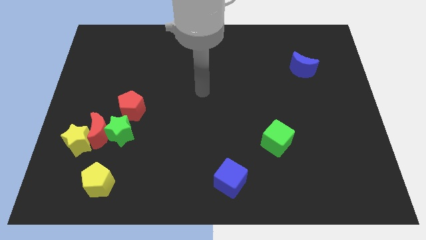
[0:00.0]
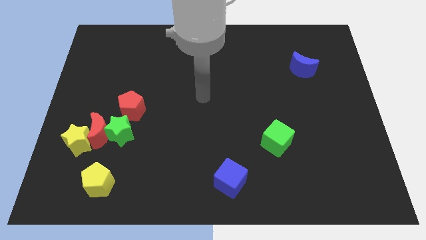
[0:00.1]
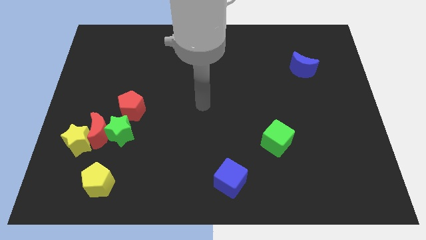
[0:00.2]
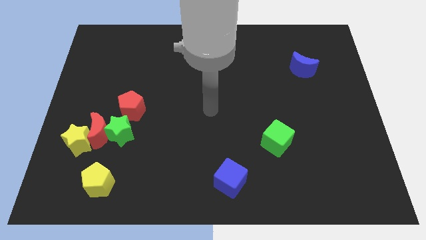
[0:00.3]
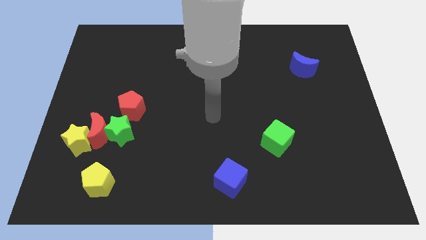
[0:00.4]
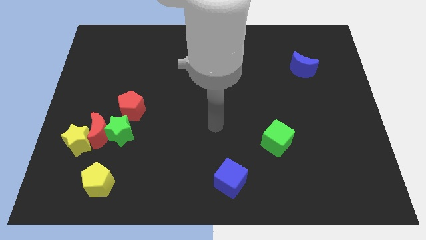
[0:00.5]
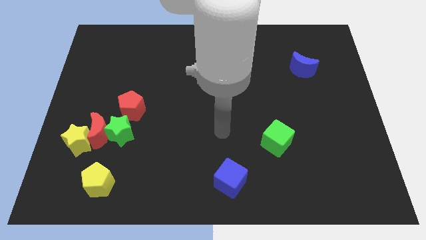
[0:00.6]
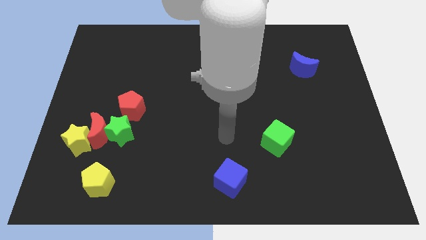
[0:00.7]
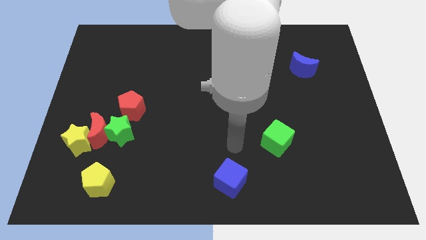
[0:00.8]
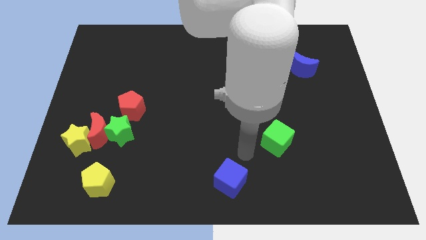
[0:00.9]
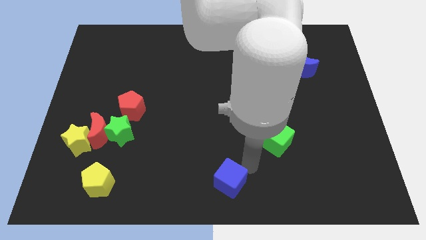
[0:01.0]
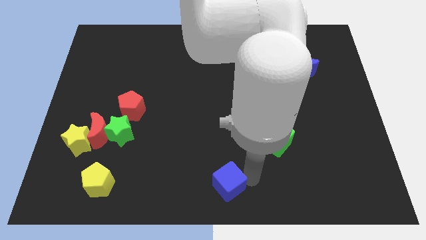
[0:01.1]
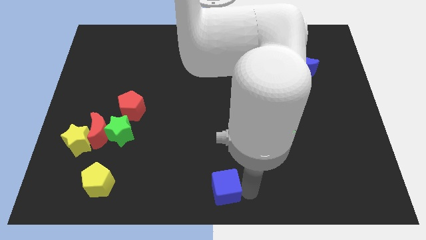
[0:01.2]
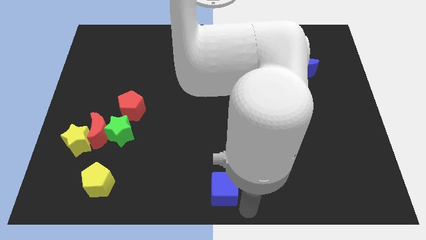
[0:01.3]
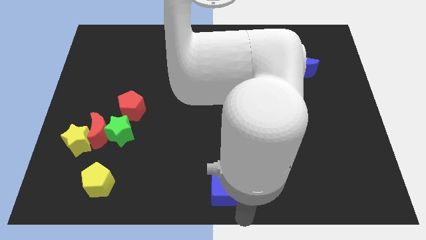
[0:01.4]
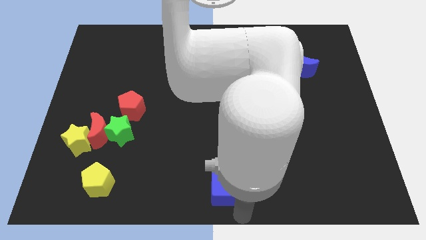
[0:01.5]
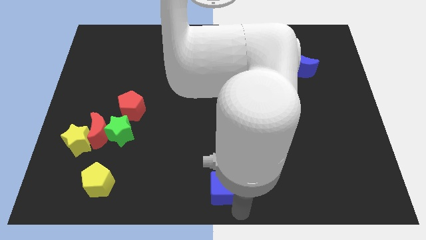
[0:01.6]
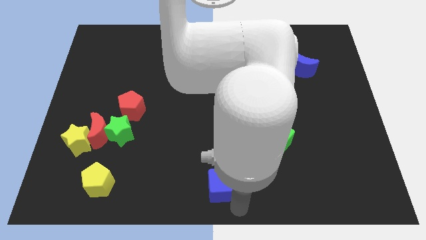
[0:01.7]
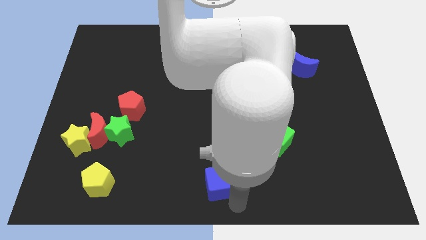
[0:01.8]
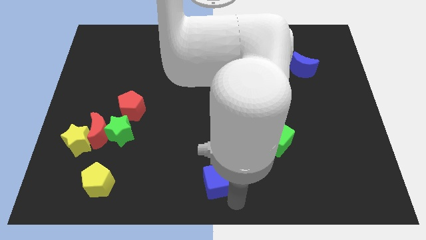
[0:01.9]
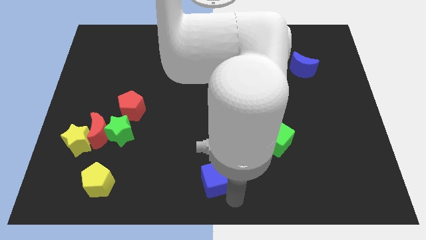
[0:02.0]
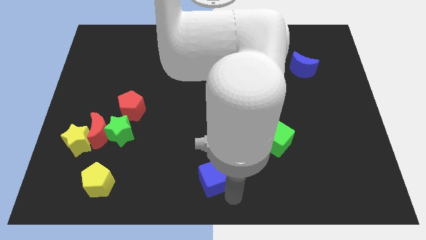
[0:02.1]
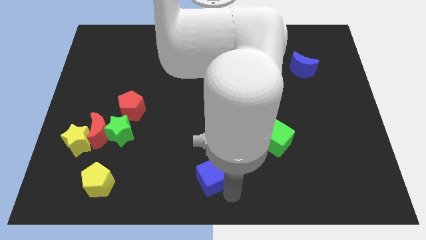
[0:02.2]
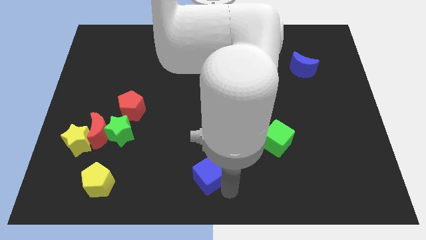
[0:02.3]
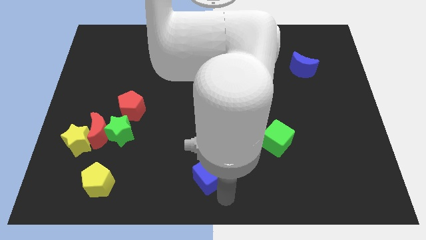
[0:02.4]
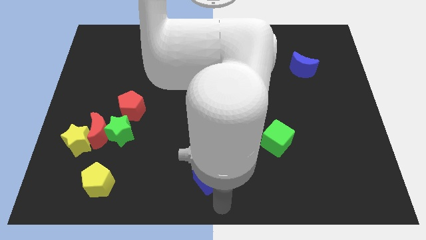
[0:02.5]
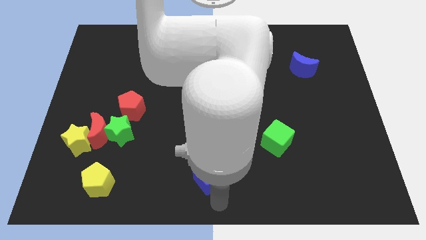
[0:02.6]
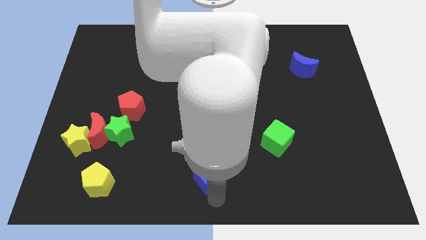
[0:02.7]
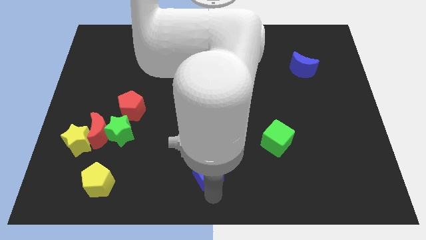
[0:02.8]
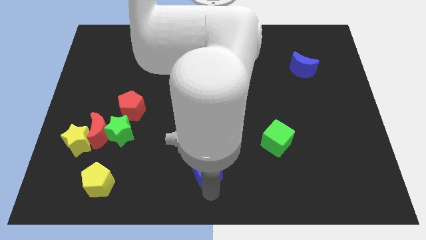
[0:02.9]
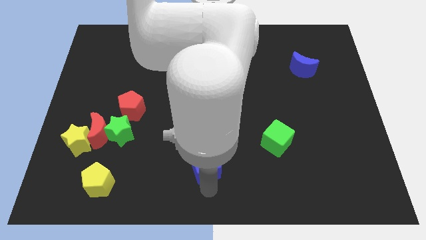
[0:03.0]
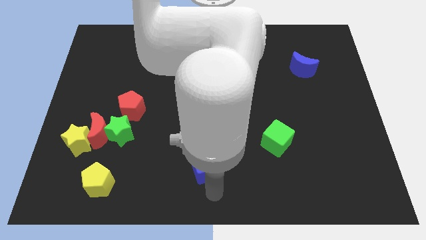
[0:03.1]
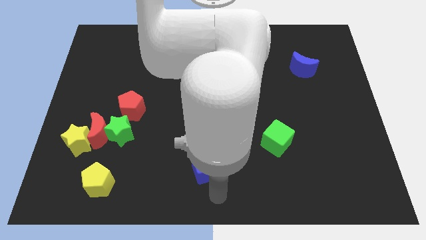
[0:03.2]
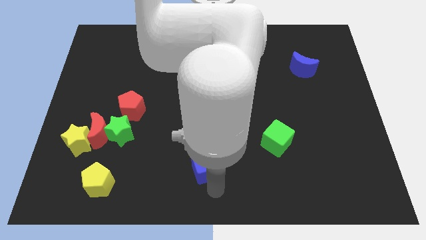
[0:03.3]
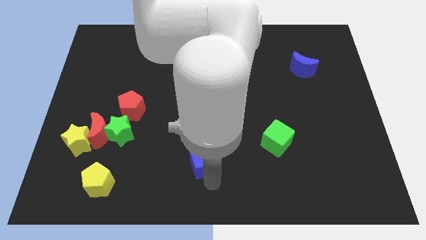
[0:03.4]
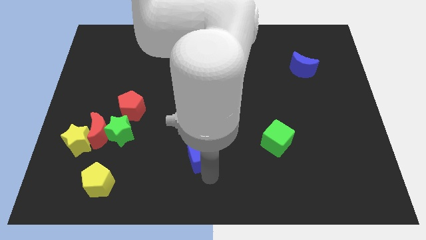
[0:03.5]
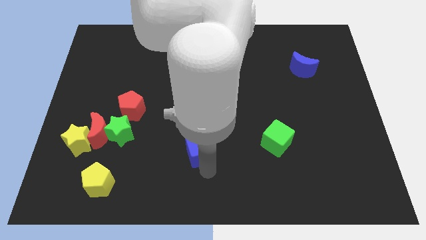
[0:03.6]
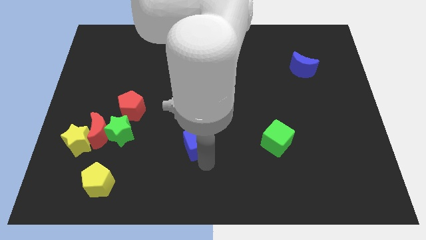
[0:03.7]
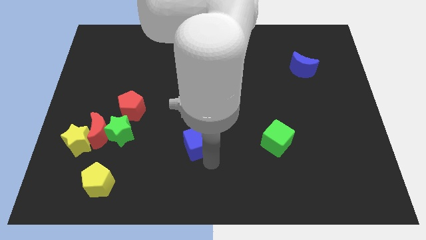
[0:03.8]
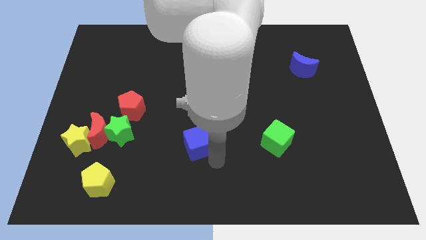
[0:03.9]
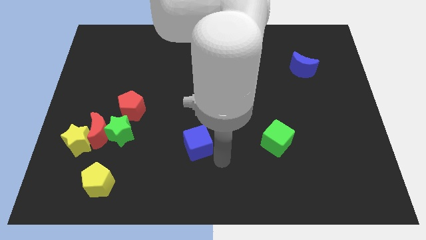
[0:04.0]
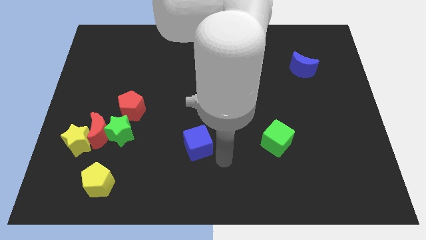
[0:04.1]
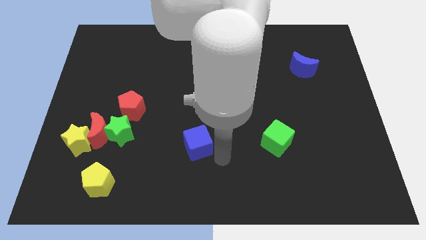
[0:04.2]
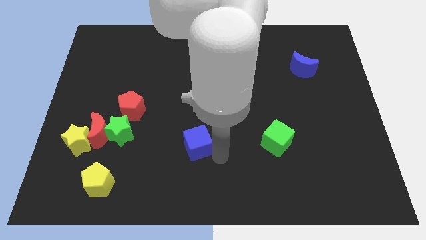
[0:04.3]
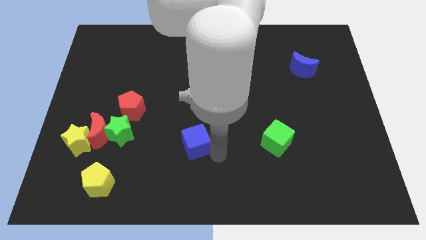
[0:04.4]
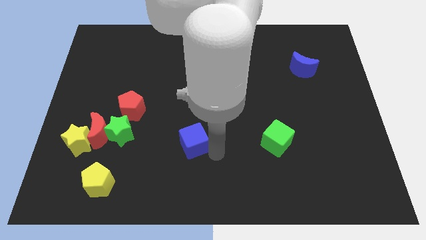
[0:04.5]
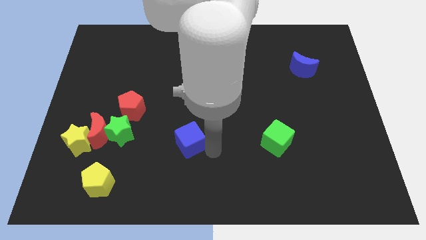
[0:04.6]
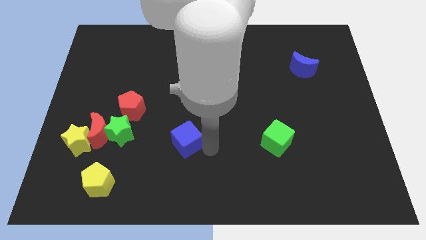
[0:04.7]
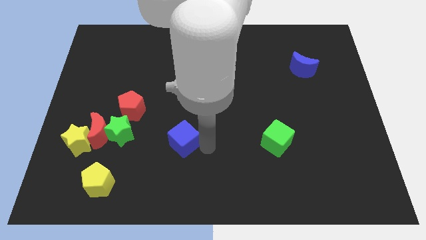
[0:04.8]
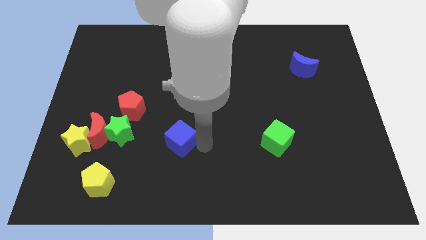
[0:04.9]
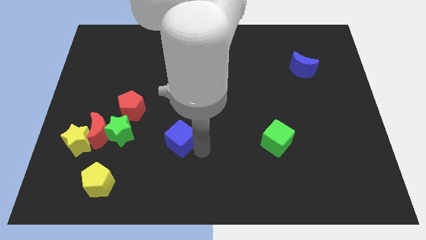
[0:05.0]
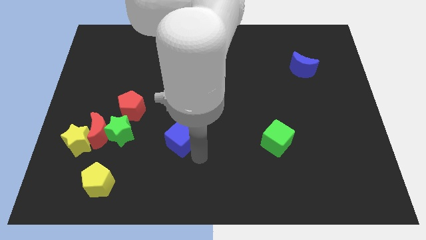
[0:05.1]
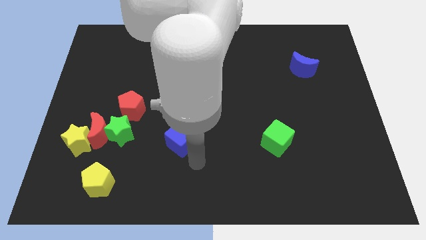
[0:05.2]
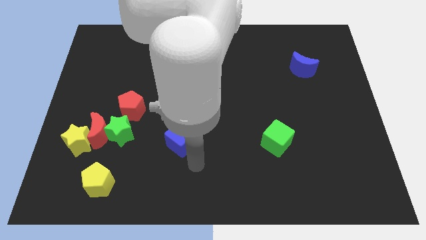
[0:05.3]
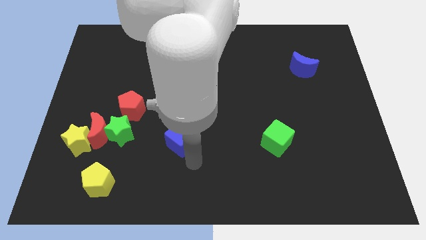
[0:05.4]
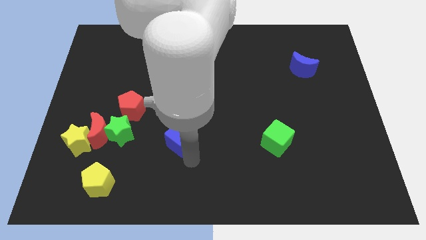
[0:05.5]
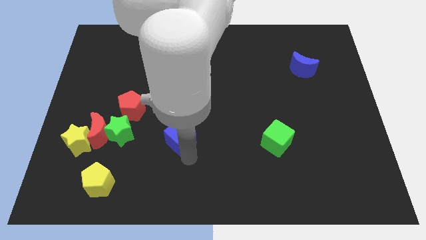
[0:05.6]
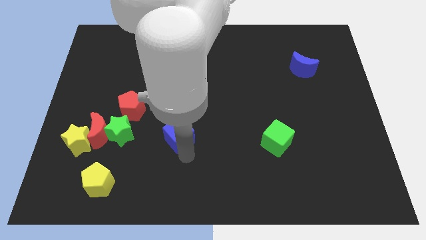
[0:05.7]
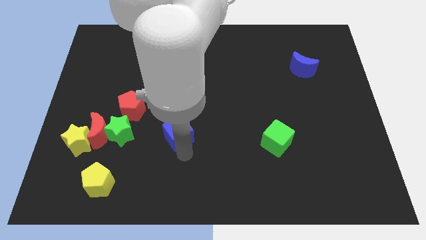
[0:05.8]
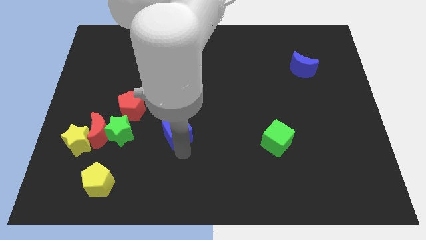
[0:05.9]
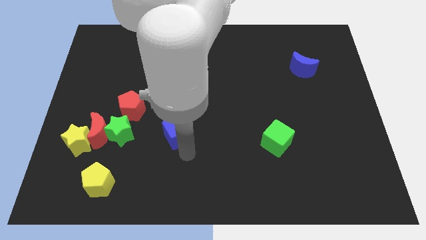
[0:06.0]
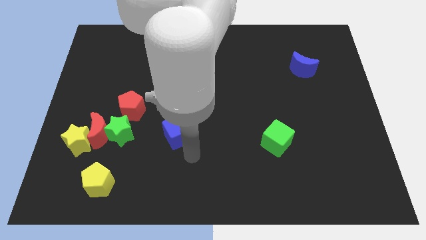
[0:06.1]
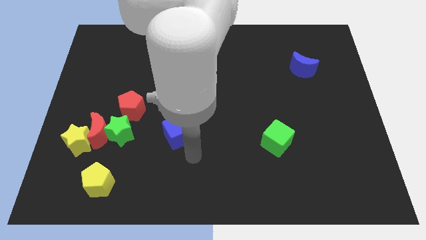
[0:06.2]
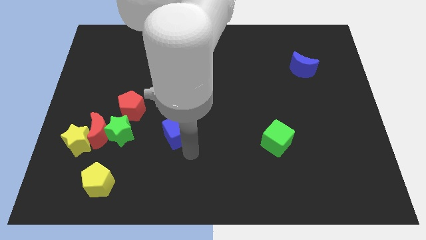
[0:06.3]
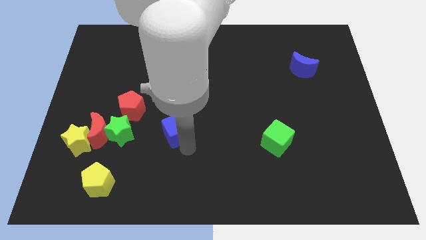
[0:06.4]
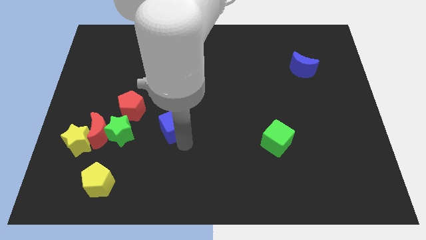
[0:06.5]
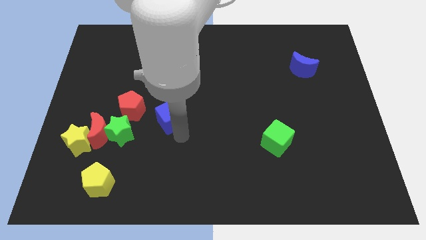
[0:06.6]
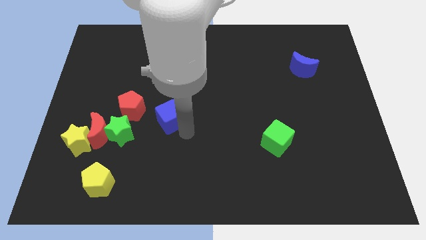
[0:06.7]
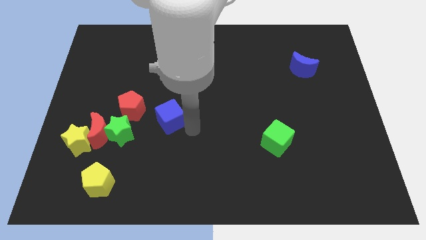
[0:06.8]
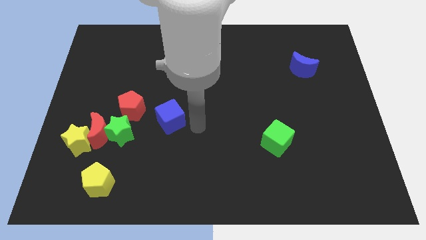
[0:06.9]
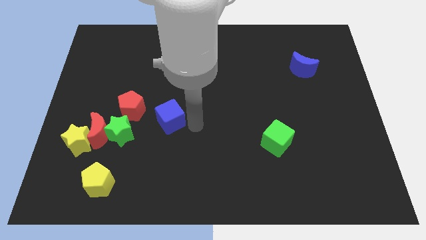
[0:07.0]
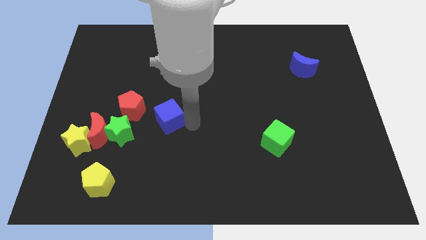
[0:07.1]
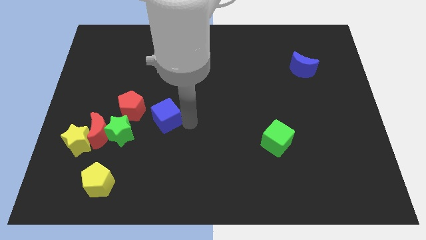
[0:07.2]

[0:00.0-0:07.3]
slide the blue cube diagonally up and to the right of the green star
